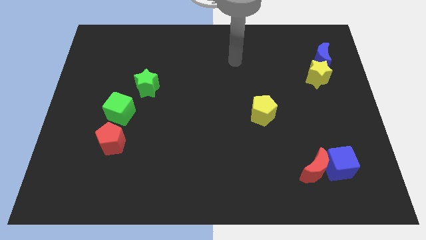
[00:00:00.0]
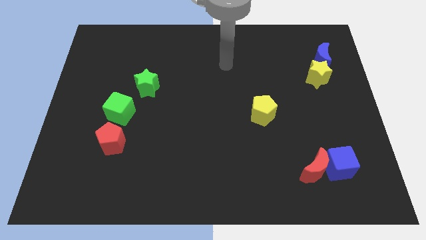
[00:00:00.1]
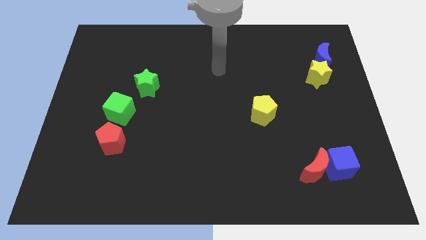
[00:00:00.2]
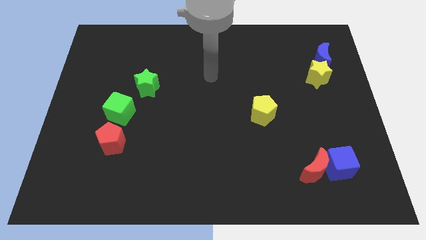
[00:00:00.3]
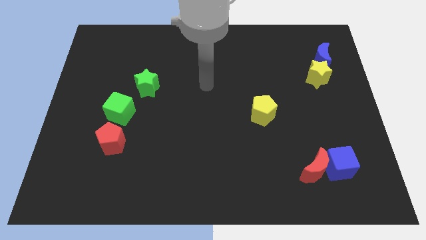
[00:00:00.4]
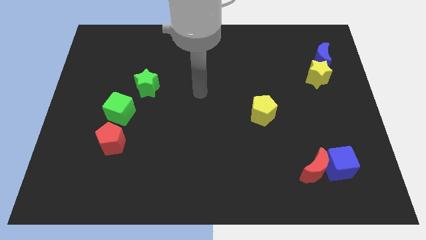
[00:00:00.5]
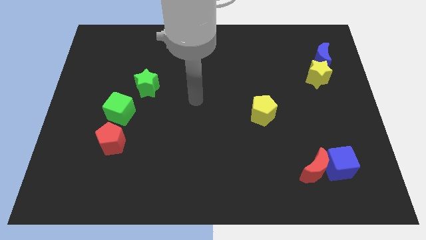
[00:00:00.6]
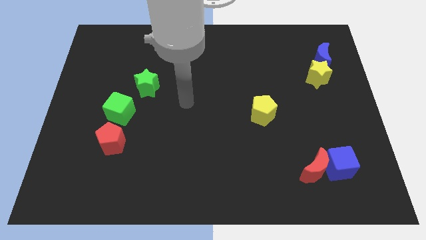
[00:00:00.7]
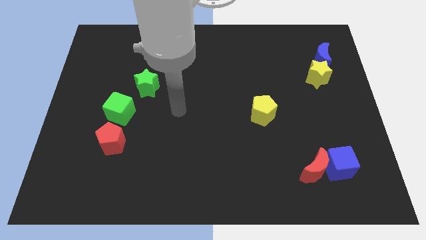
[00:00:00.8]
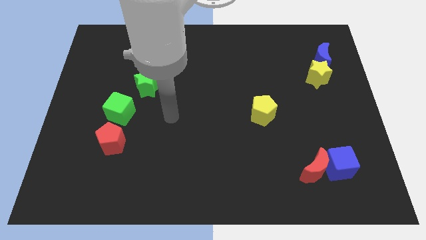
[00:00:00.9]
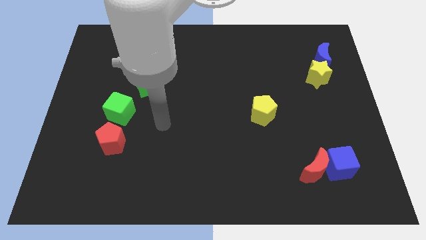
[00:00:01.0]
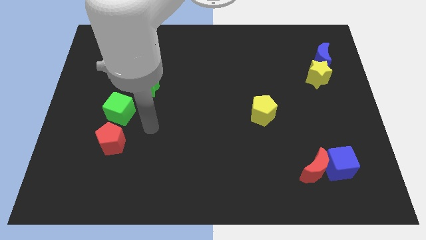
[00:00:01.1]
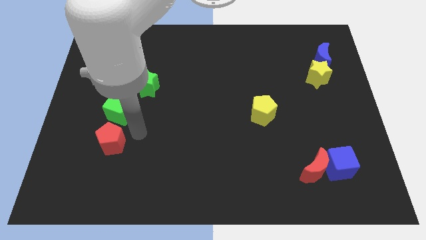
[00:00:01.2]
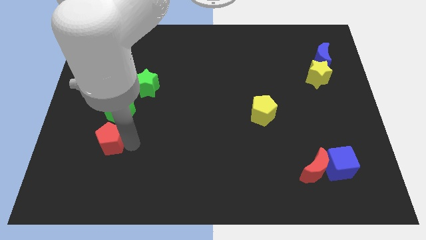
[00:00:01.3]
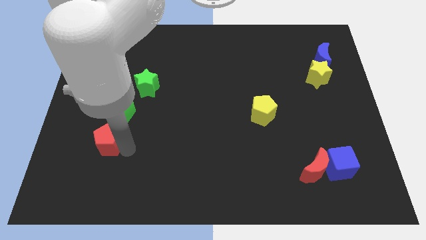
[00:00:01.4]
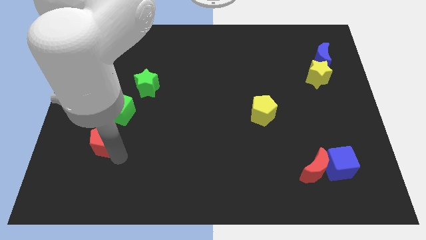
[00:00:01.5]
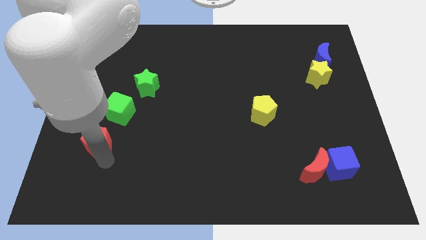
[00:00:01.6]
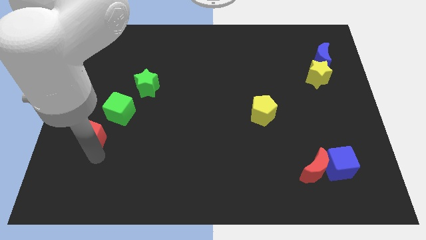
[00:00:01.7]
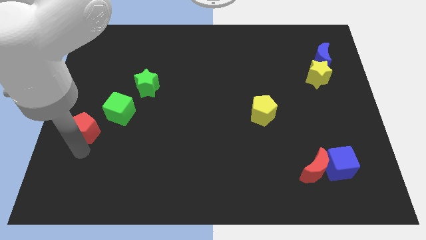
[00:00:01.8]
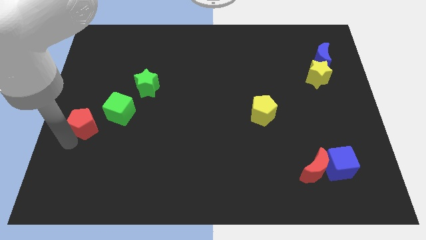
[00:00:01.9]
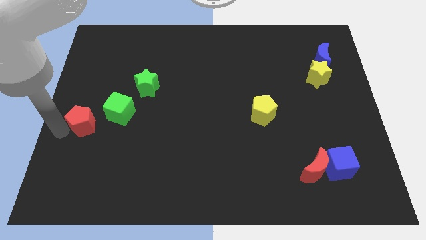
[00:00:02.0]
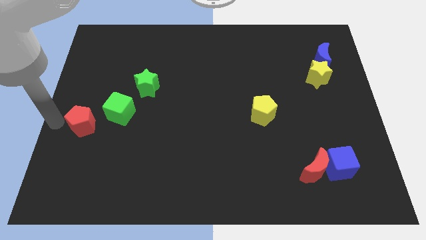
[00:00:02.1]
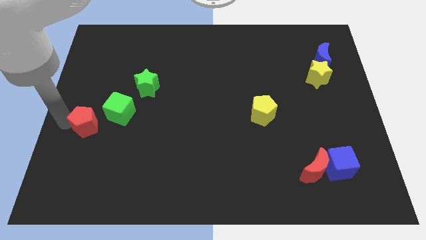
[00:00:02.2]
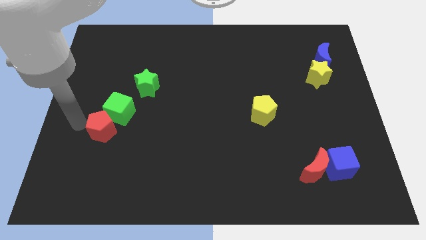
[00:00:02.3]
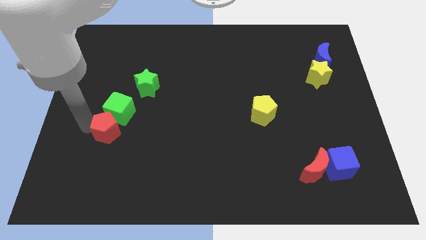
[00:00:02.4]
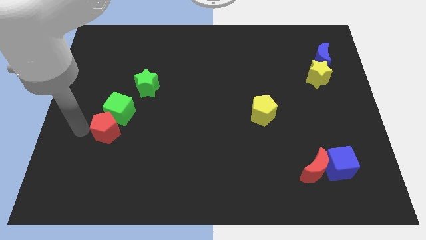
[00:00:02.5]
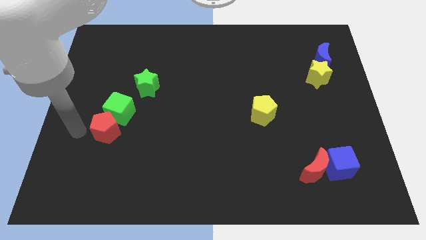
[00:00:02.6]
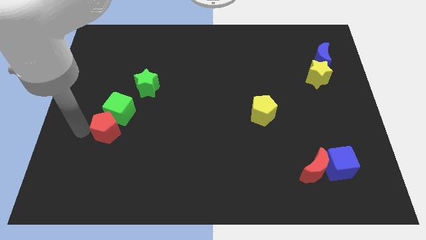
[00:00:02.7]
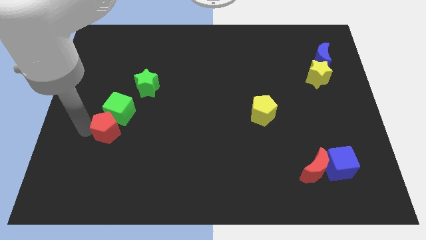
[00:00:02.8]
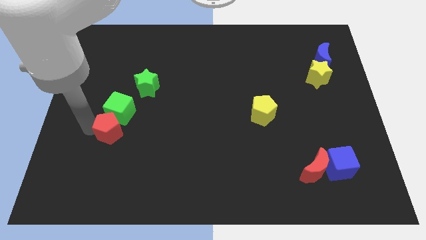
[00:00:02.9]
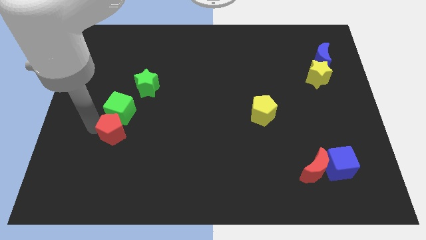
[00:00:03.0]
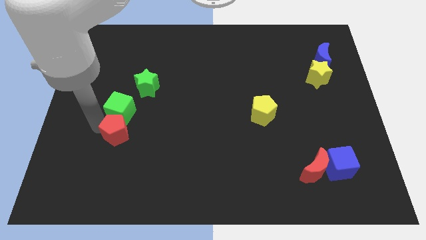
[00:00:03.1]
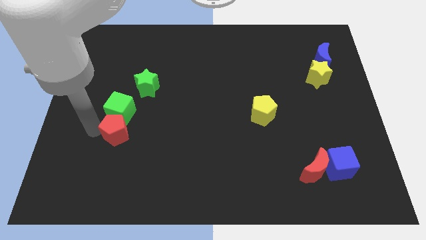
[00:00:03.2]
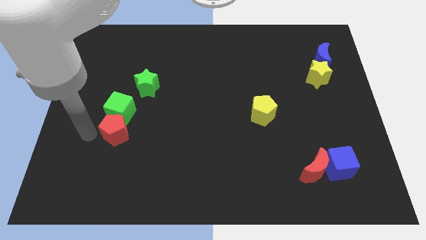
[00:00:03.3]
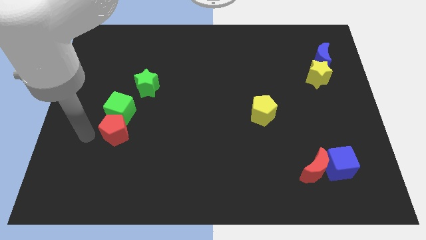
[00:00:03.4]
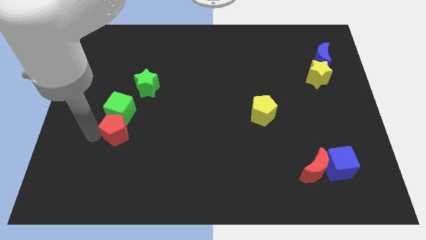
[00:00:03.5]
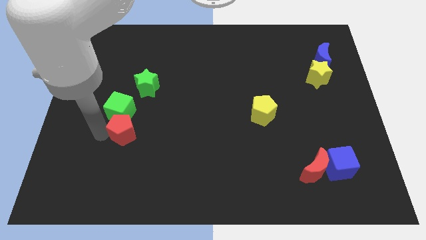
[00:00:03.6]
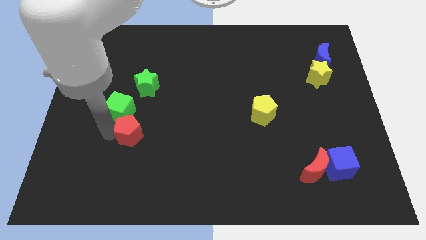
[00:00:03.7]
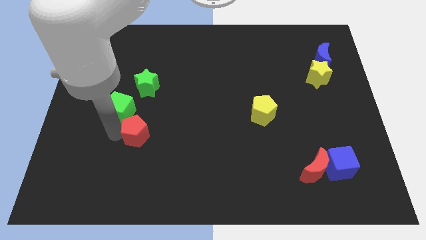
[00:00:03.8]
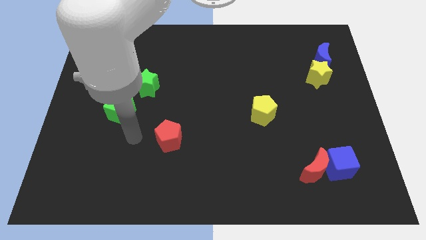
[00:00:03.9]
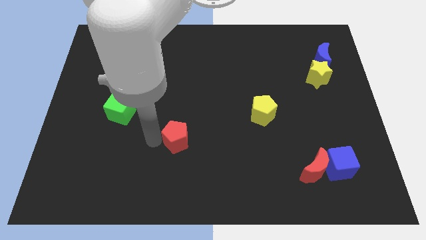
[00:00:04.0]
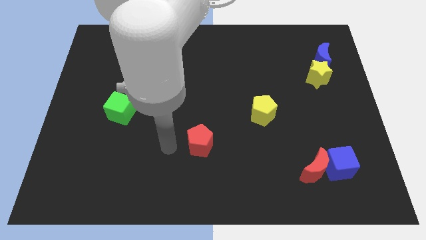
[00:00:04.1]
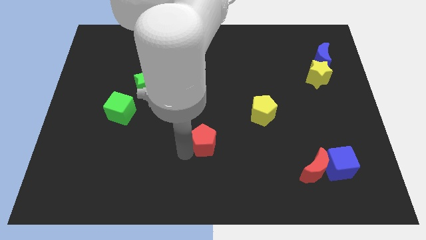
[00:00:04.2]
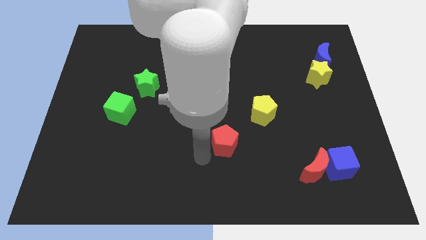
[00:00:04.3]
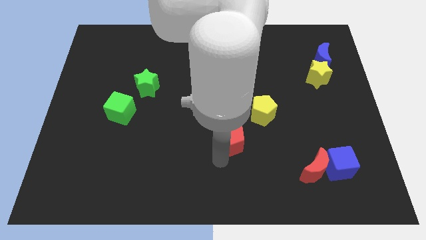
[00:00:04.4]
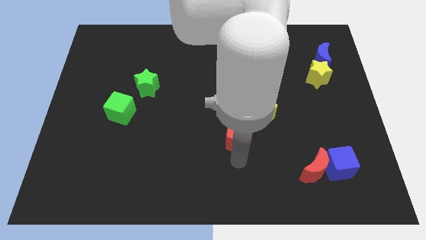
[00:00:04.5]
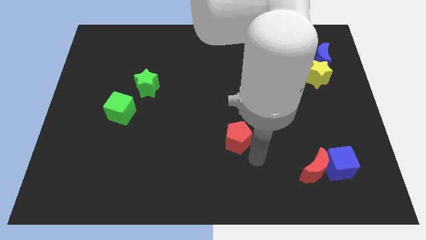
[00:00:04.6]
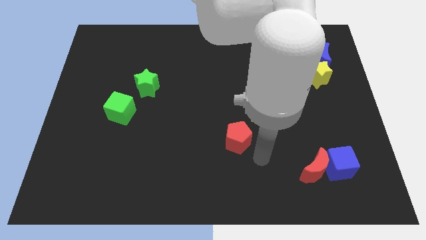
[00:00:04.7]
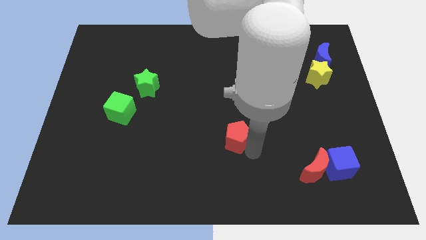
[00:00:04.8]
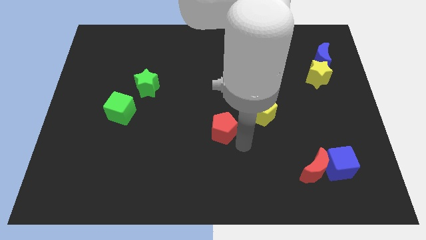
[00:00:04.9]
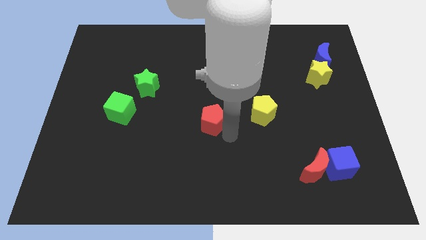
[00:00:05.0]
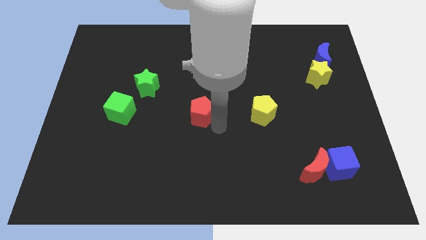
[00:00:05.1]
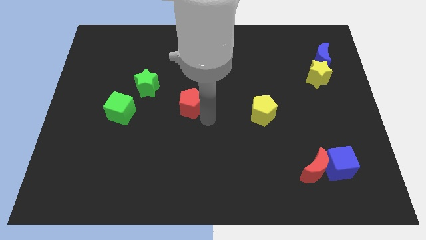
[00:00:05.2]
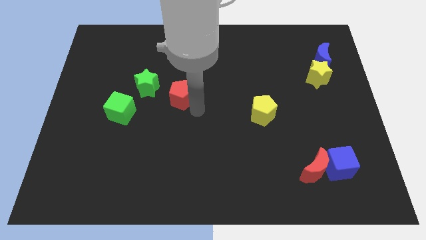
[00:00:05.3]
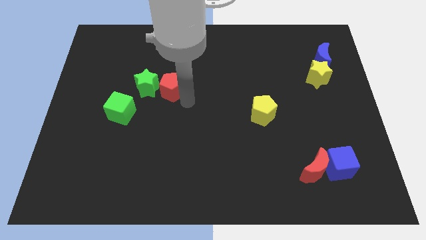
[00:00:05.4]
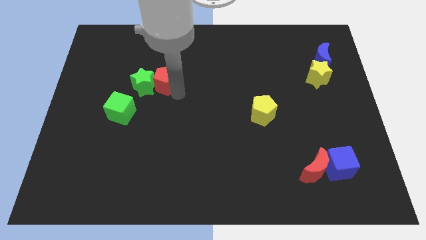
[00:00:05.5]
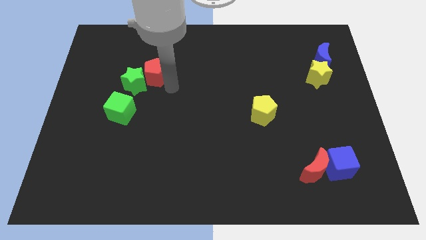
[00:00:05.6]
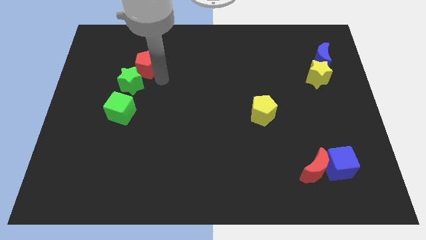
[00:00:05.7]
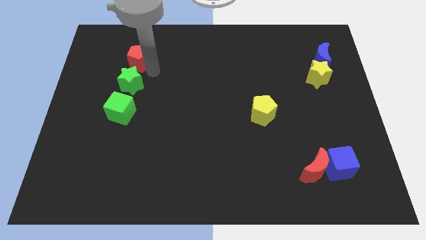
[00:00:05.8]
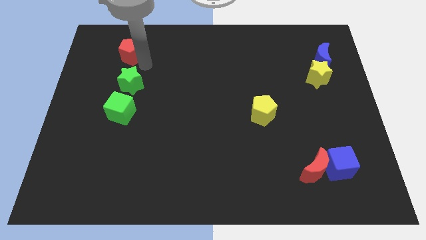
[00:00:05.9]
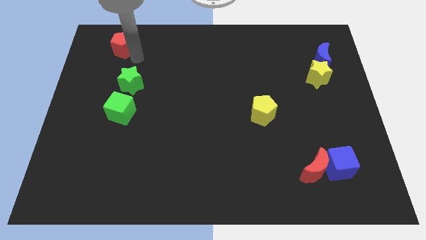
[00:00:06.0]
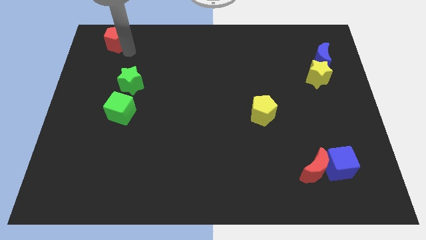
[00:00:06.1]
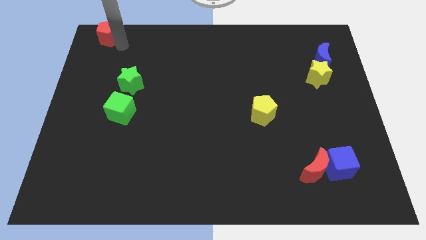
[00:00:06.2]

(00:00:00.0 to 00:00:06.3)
move the red pentagon to the top left

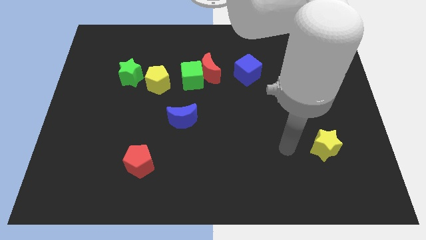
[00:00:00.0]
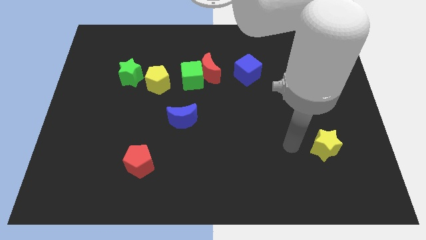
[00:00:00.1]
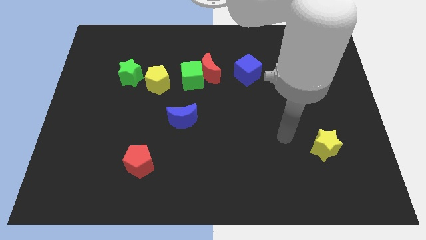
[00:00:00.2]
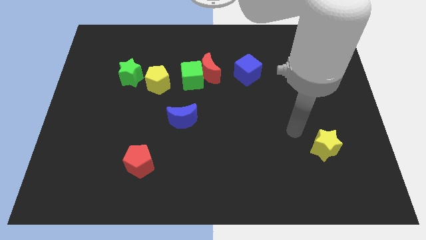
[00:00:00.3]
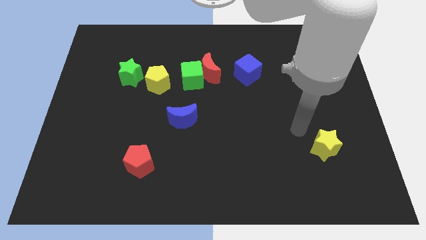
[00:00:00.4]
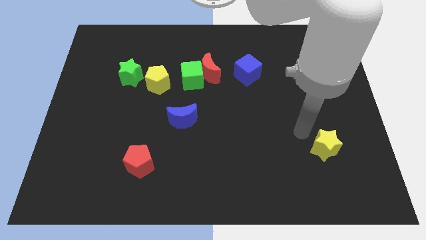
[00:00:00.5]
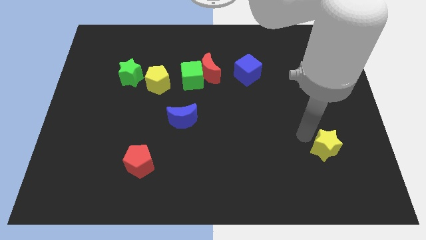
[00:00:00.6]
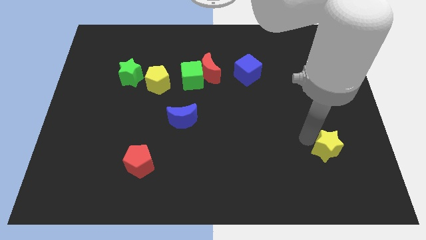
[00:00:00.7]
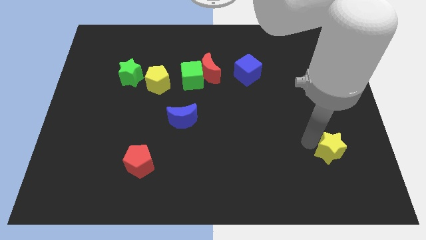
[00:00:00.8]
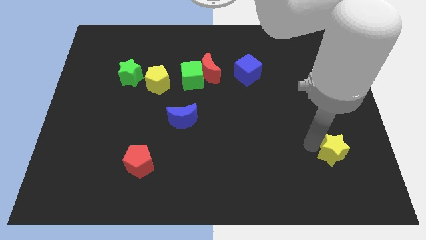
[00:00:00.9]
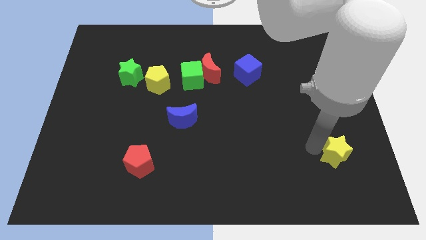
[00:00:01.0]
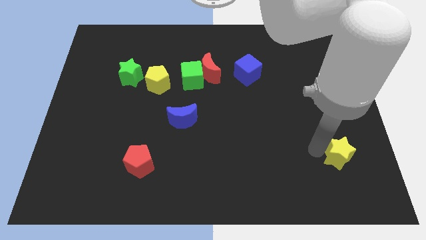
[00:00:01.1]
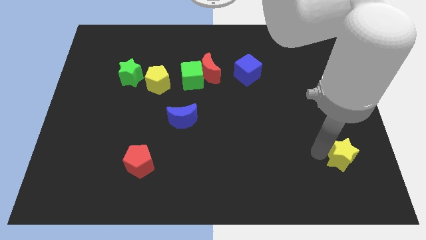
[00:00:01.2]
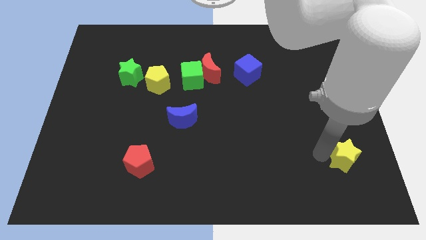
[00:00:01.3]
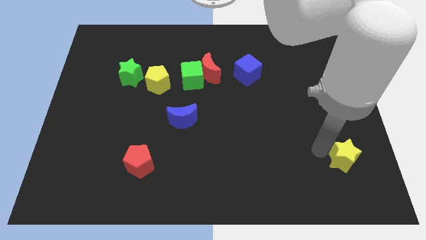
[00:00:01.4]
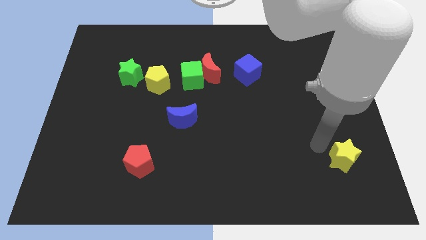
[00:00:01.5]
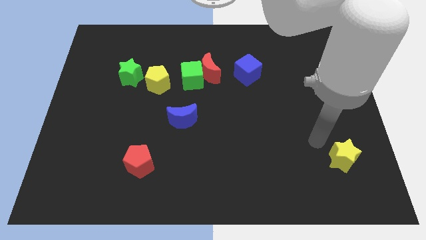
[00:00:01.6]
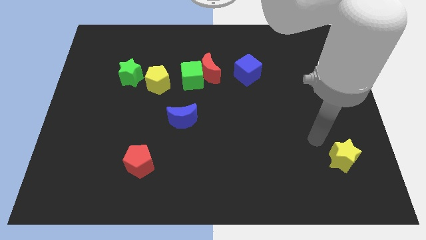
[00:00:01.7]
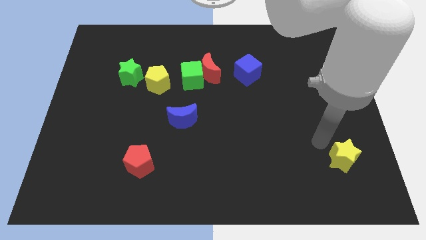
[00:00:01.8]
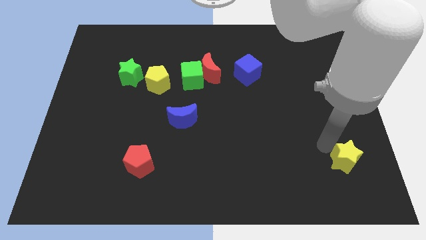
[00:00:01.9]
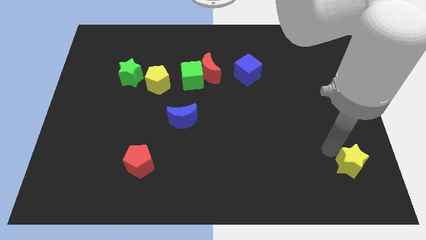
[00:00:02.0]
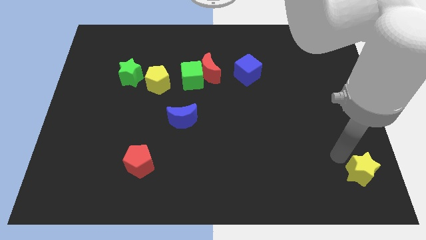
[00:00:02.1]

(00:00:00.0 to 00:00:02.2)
push the yellow star to the lower right corner
